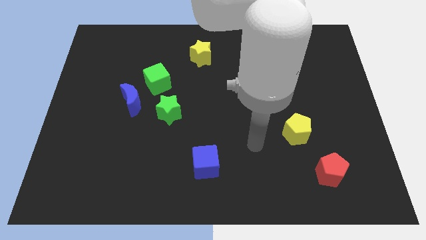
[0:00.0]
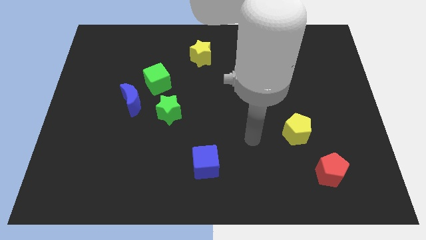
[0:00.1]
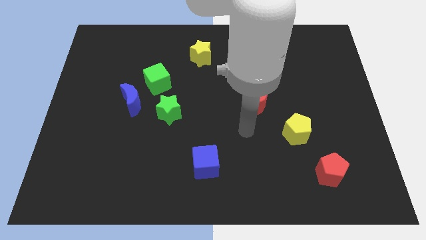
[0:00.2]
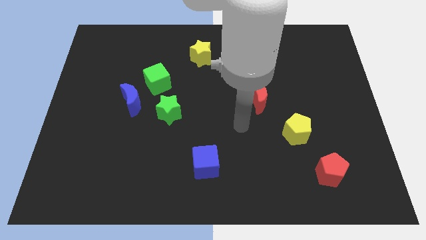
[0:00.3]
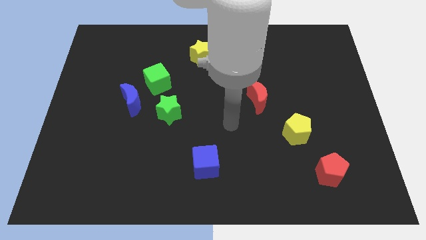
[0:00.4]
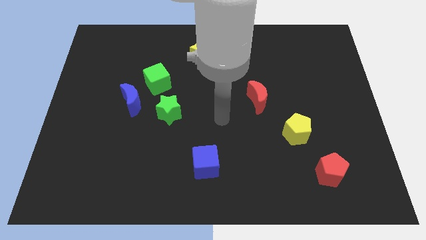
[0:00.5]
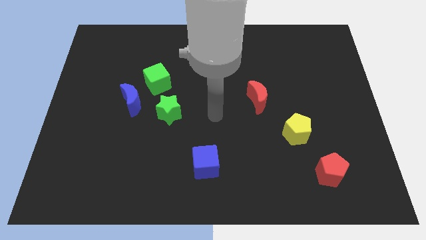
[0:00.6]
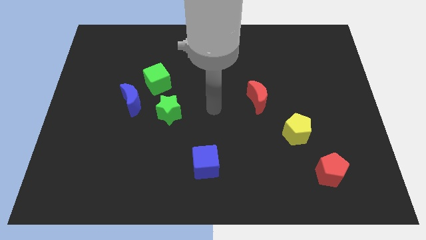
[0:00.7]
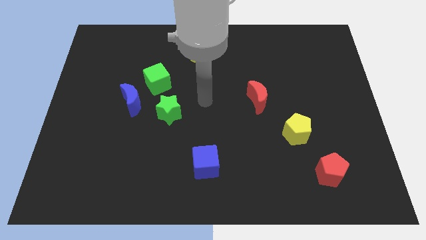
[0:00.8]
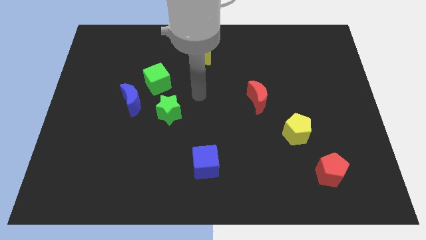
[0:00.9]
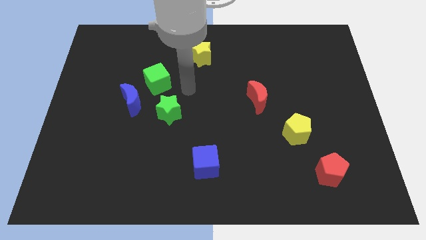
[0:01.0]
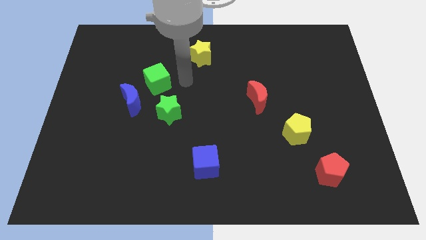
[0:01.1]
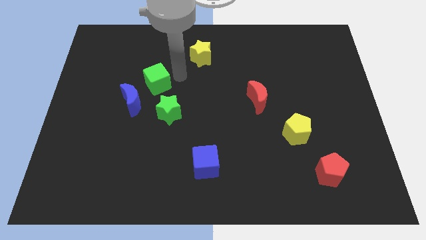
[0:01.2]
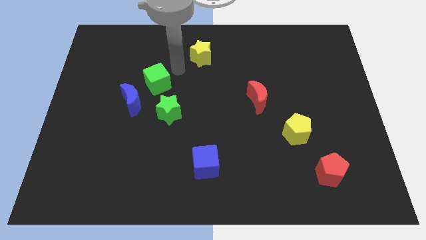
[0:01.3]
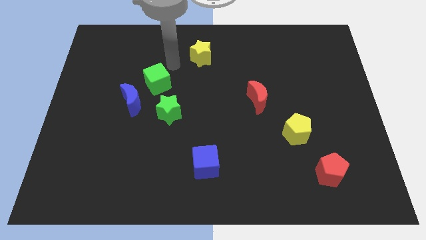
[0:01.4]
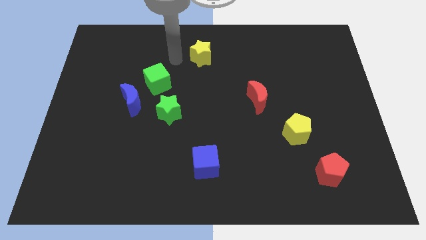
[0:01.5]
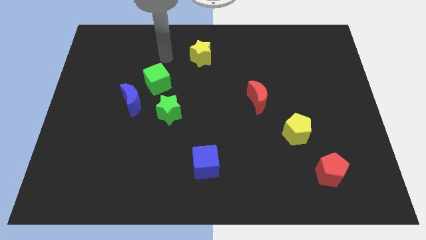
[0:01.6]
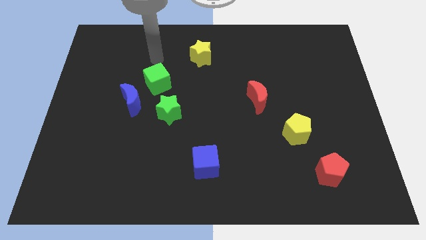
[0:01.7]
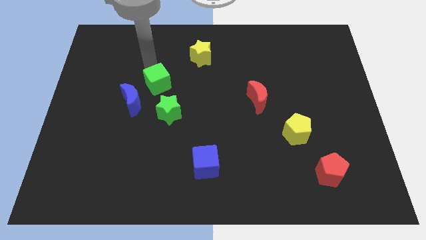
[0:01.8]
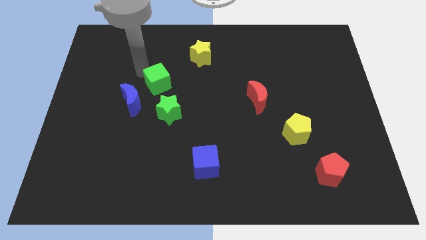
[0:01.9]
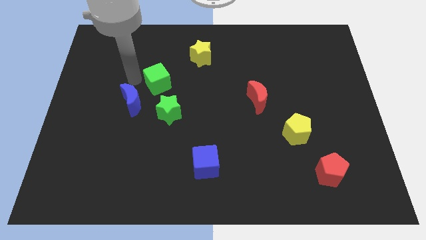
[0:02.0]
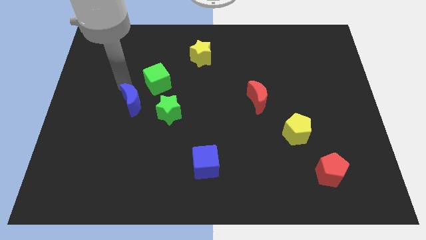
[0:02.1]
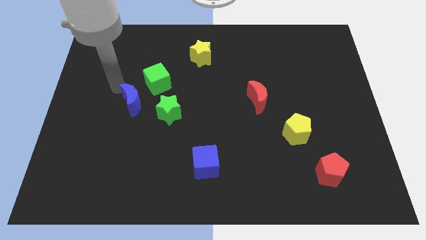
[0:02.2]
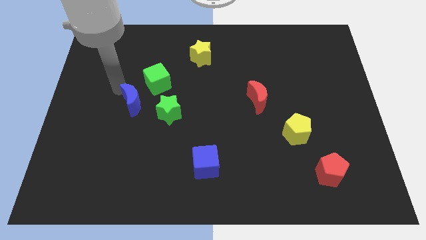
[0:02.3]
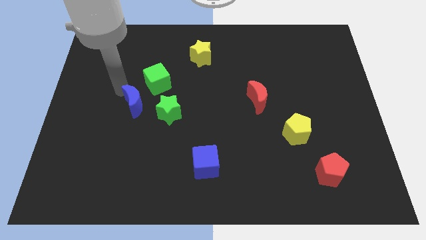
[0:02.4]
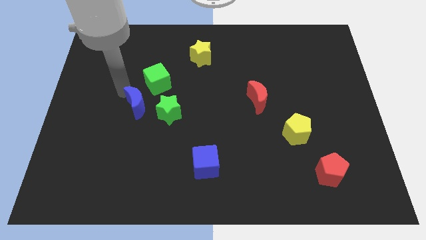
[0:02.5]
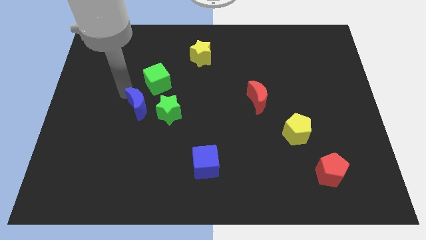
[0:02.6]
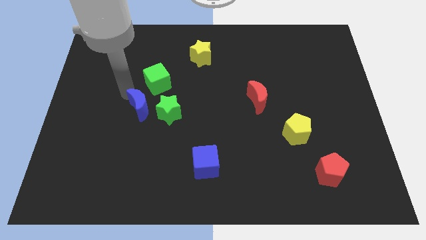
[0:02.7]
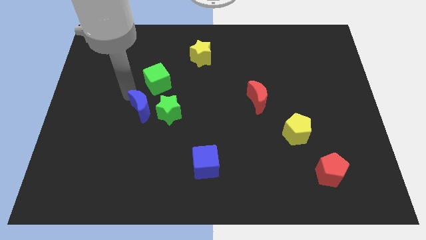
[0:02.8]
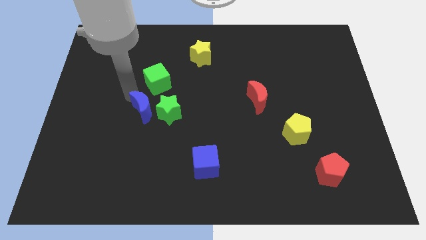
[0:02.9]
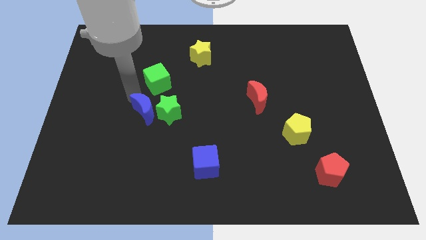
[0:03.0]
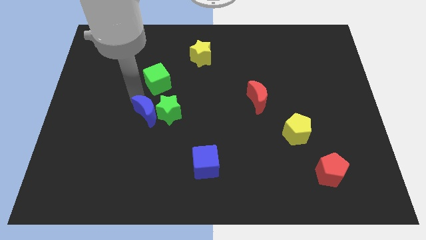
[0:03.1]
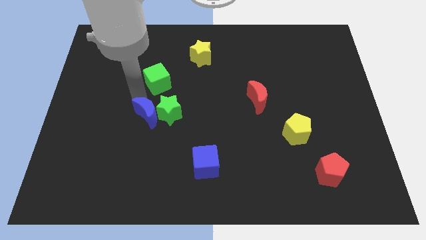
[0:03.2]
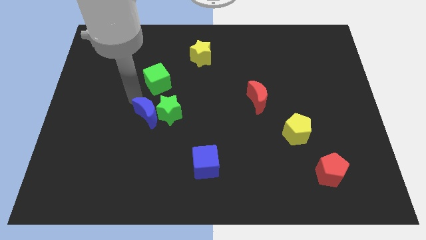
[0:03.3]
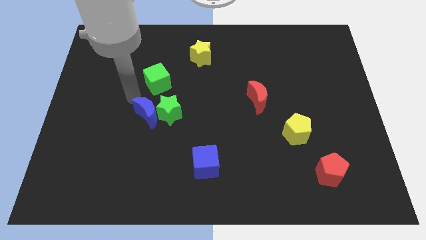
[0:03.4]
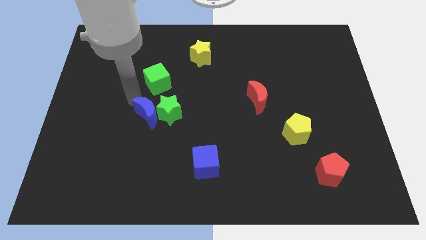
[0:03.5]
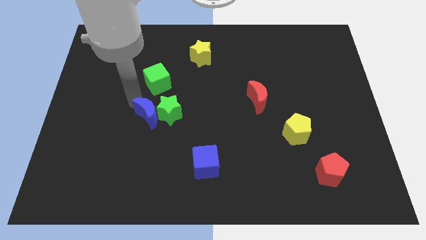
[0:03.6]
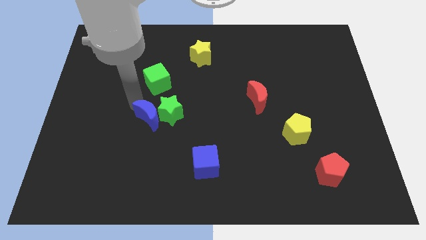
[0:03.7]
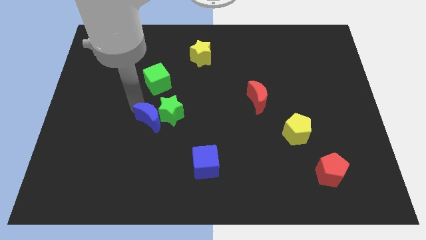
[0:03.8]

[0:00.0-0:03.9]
push the blue moon downwards and right diagonally somewhat

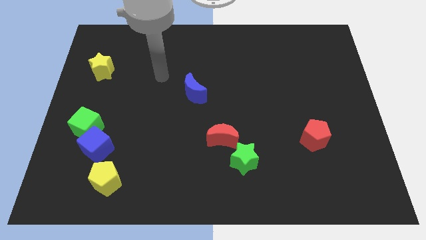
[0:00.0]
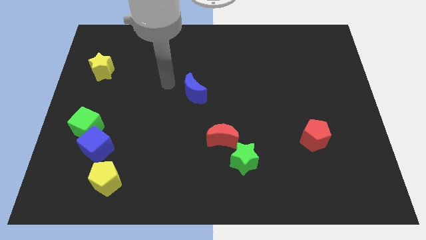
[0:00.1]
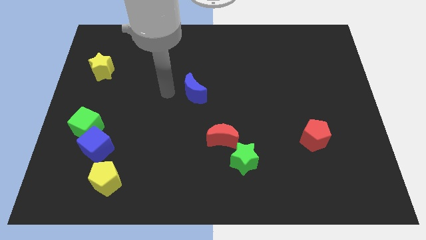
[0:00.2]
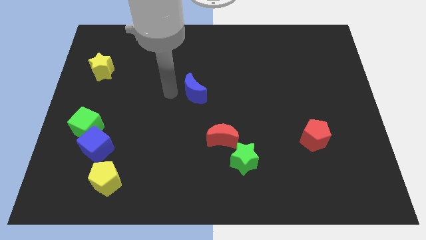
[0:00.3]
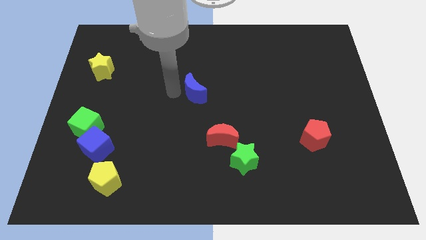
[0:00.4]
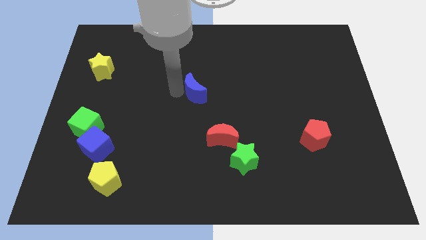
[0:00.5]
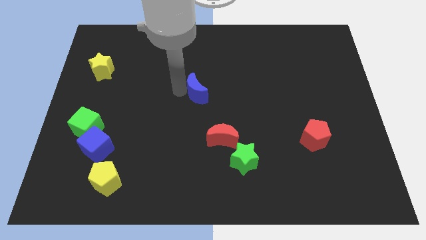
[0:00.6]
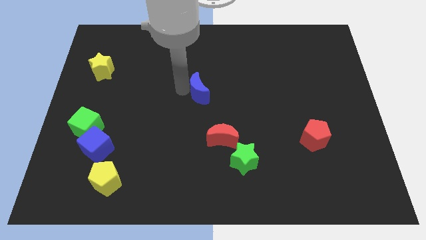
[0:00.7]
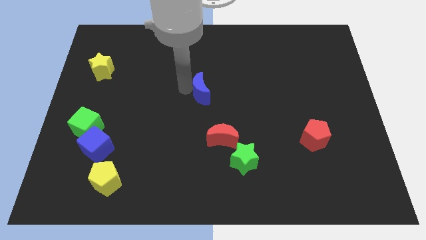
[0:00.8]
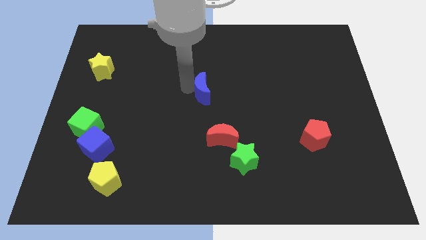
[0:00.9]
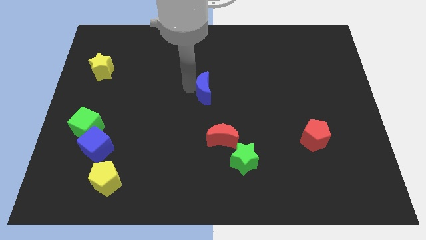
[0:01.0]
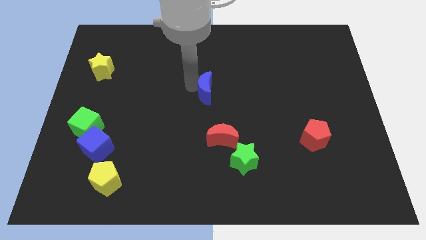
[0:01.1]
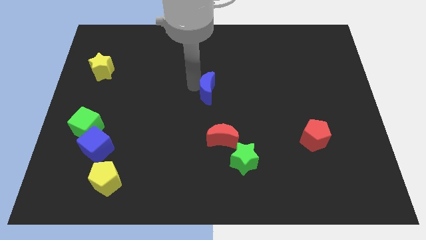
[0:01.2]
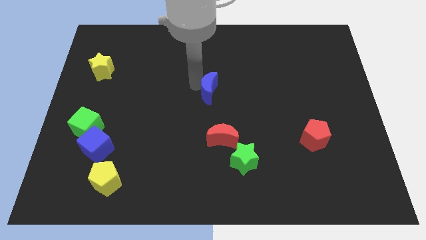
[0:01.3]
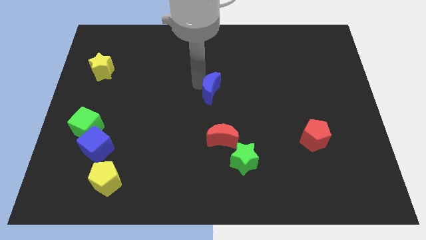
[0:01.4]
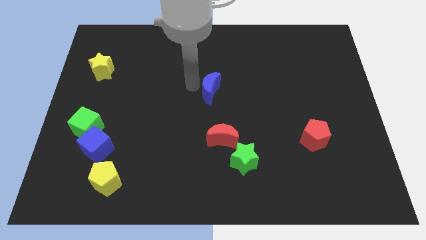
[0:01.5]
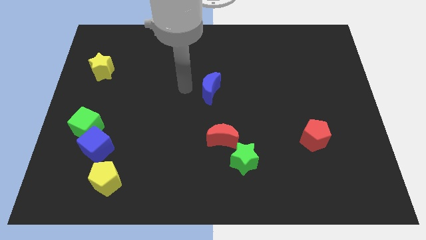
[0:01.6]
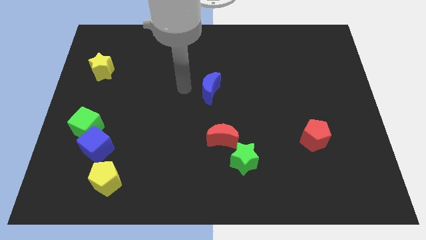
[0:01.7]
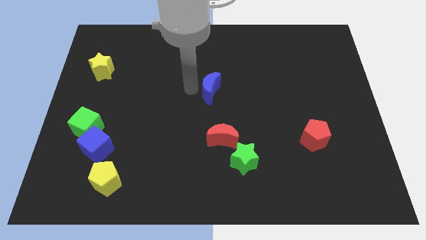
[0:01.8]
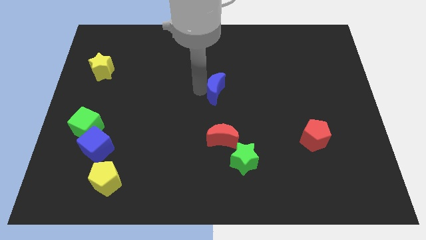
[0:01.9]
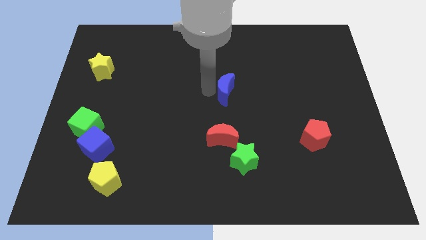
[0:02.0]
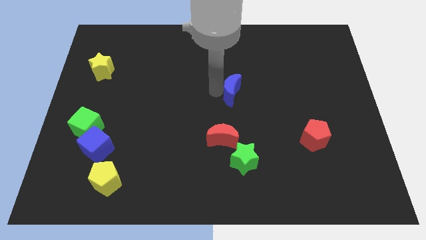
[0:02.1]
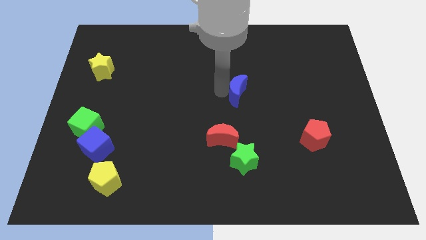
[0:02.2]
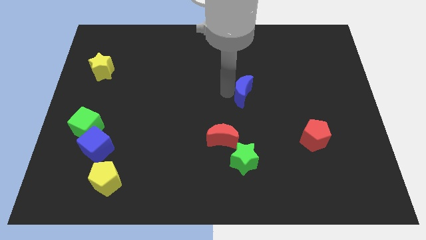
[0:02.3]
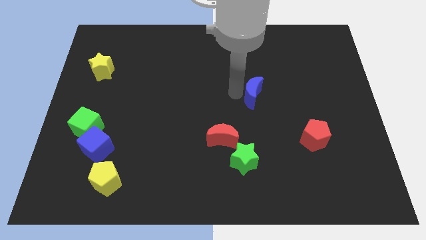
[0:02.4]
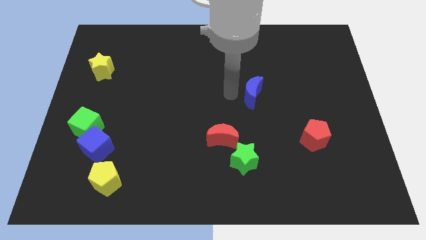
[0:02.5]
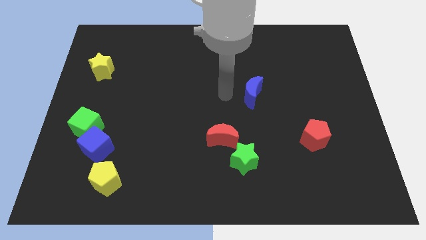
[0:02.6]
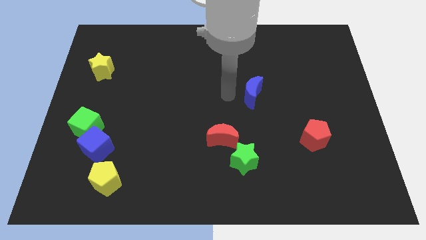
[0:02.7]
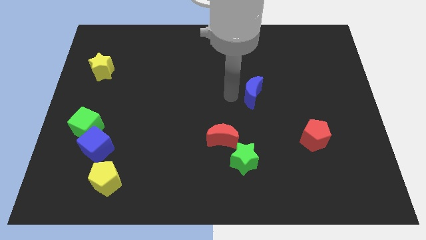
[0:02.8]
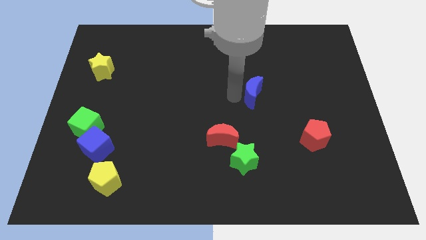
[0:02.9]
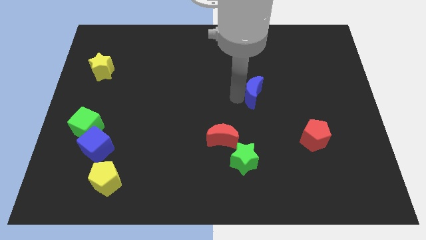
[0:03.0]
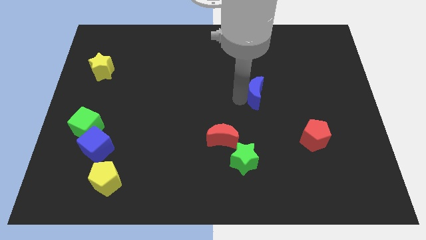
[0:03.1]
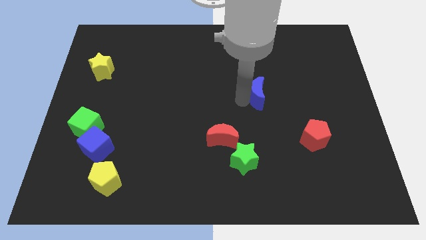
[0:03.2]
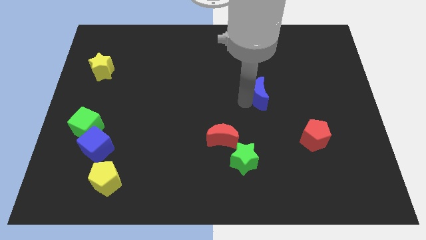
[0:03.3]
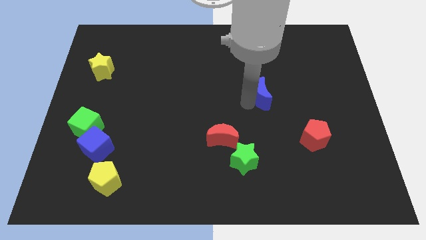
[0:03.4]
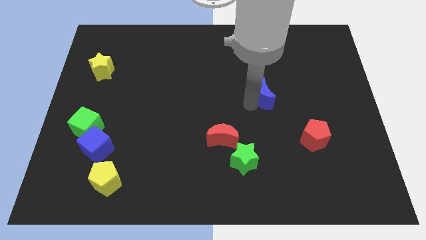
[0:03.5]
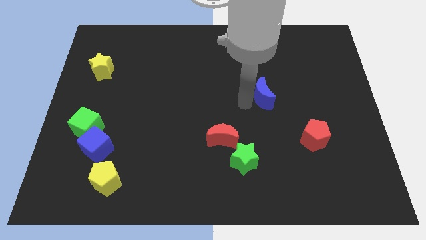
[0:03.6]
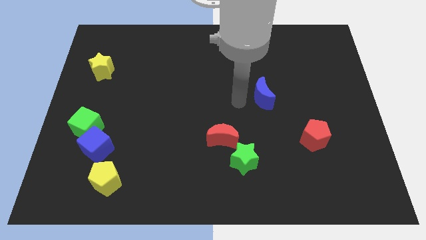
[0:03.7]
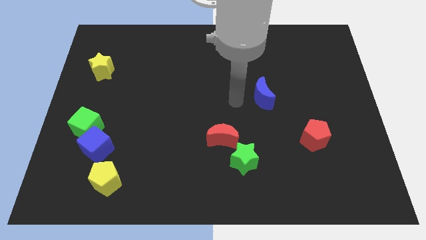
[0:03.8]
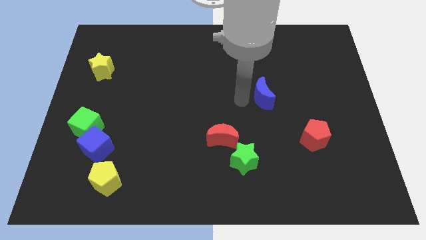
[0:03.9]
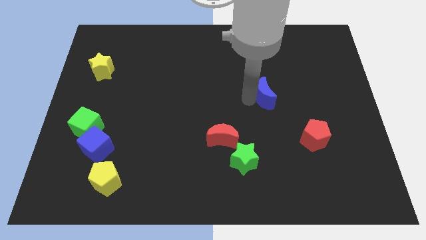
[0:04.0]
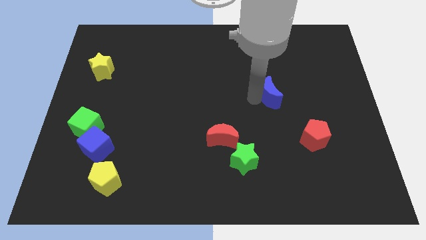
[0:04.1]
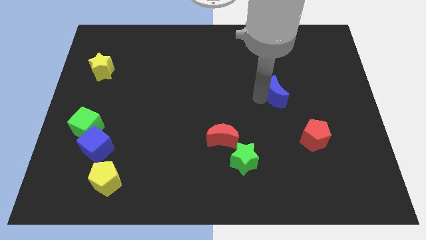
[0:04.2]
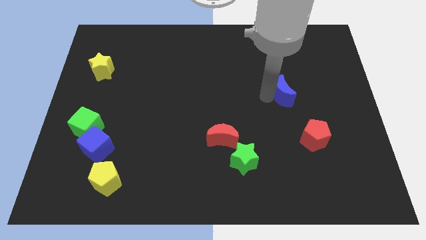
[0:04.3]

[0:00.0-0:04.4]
move the blue moon to the right
